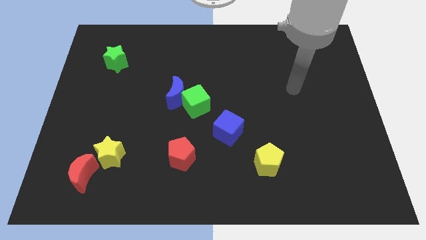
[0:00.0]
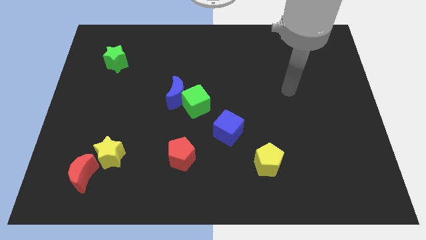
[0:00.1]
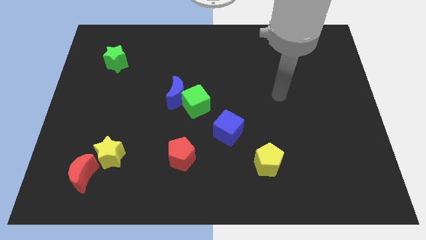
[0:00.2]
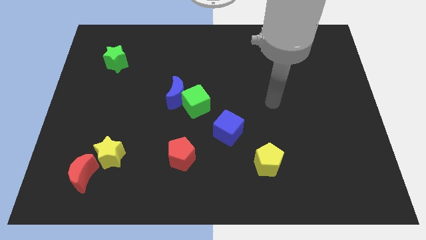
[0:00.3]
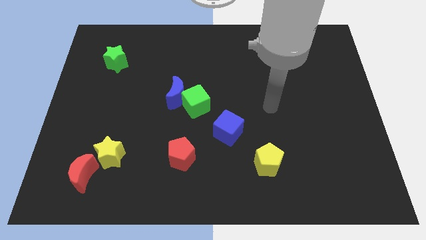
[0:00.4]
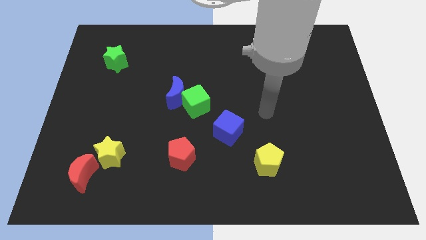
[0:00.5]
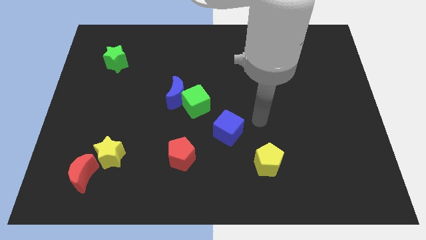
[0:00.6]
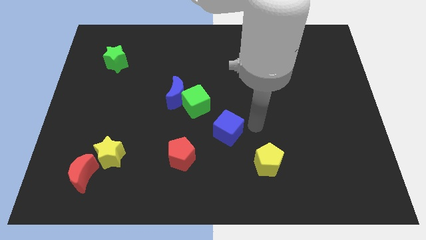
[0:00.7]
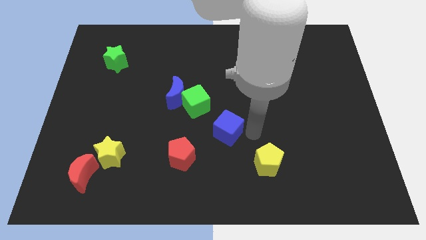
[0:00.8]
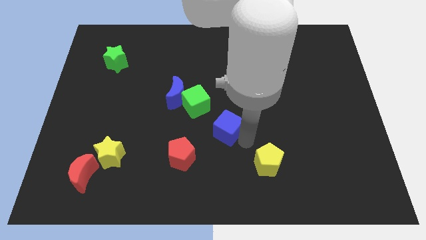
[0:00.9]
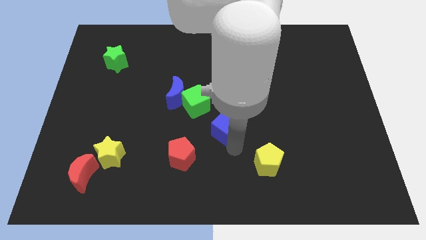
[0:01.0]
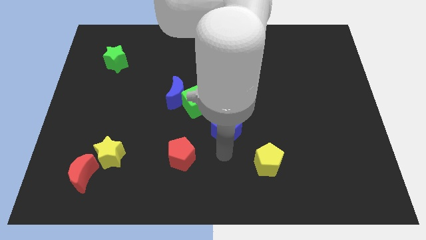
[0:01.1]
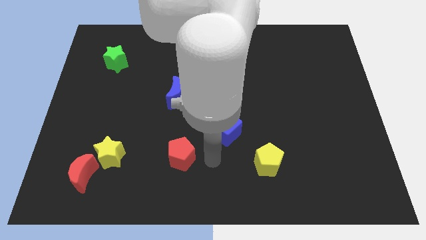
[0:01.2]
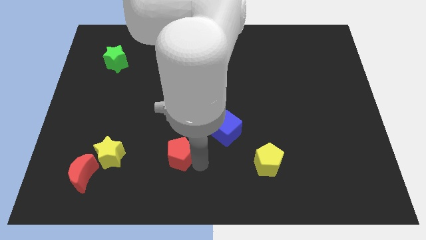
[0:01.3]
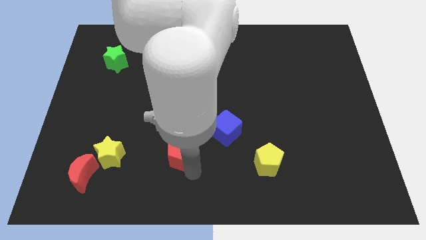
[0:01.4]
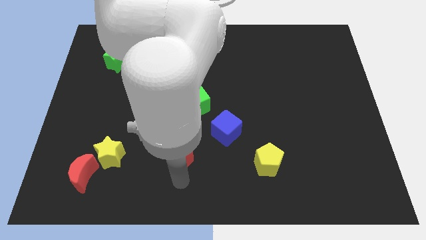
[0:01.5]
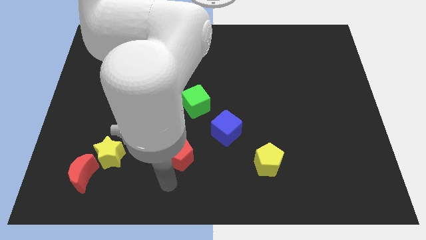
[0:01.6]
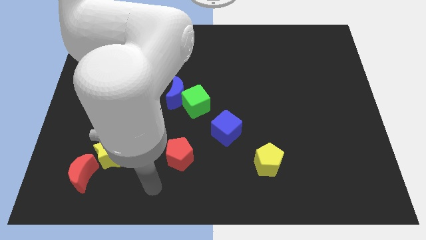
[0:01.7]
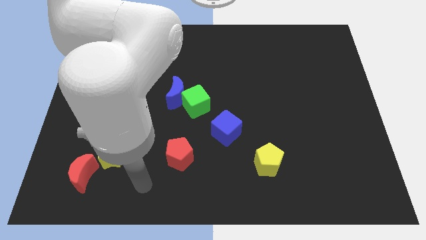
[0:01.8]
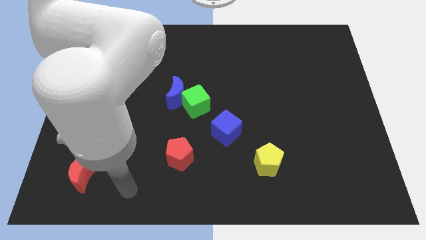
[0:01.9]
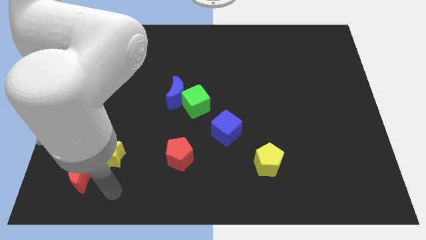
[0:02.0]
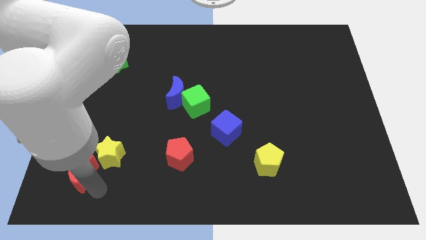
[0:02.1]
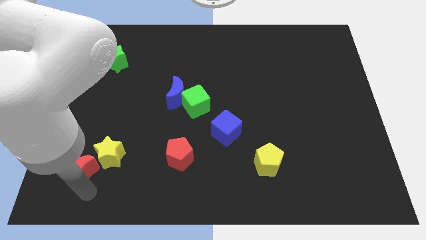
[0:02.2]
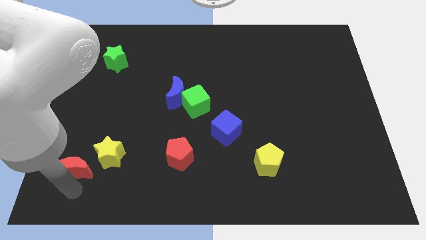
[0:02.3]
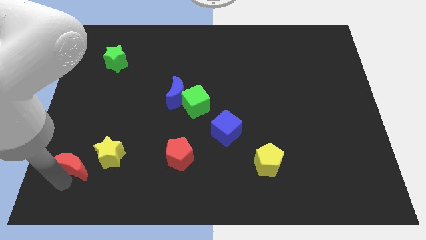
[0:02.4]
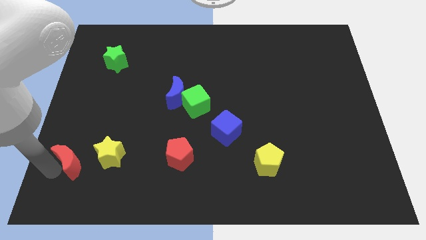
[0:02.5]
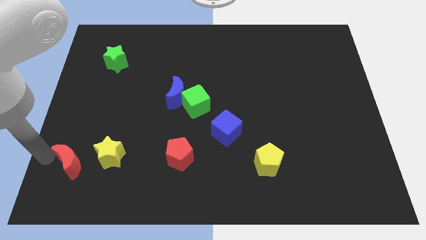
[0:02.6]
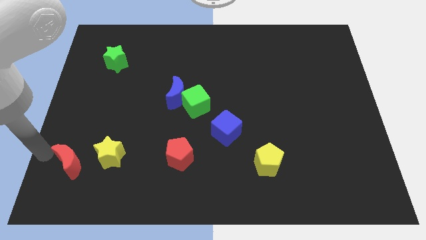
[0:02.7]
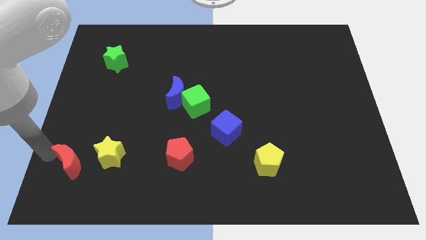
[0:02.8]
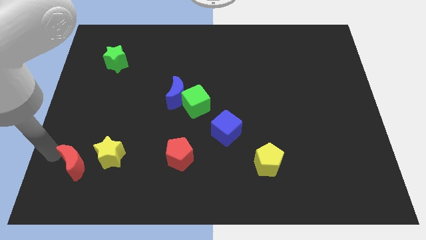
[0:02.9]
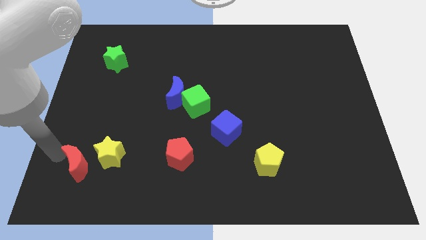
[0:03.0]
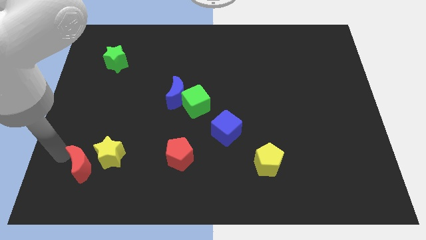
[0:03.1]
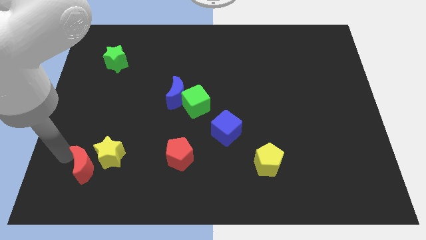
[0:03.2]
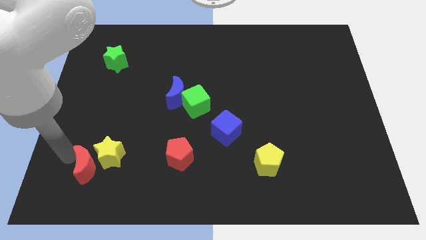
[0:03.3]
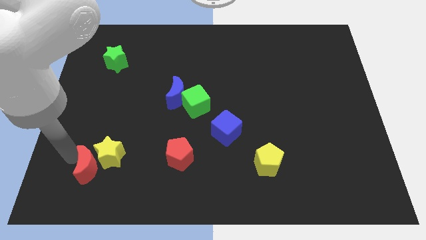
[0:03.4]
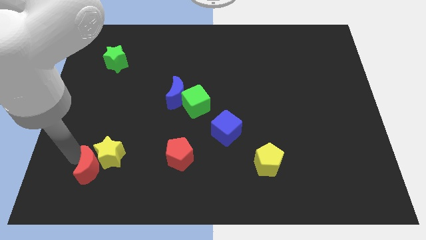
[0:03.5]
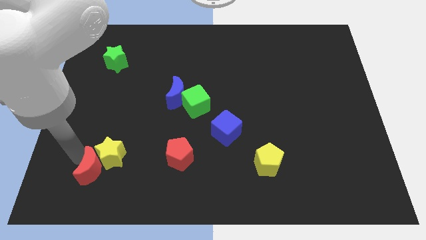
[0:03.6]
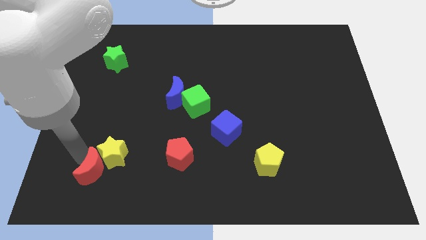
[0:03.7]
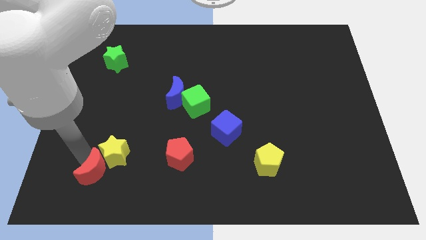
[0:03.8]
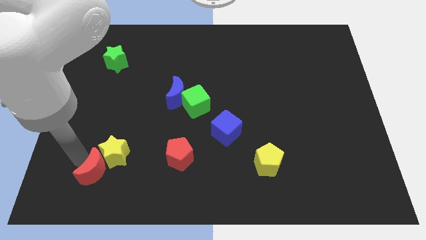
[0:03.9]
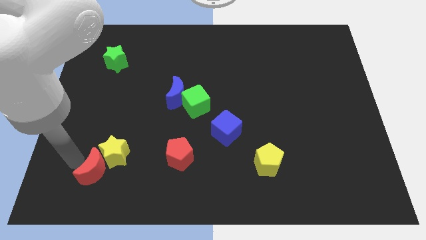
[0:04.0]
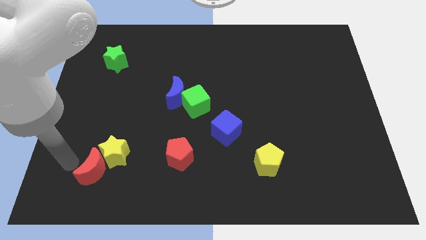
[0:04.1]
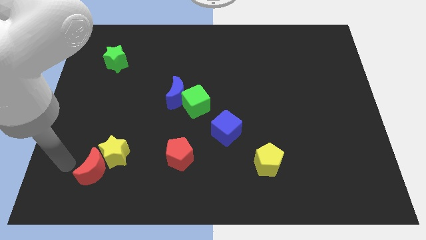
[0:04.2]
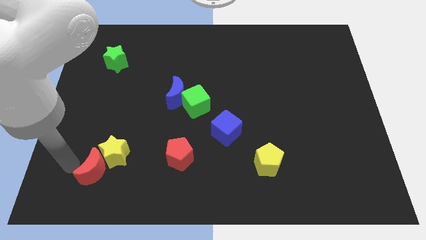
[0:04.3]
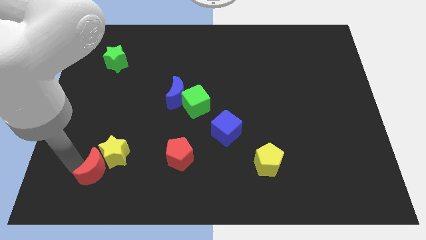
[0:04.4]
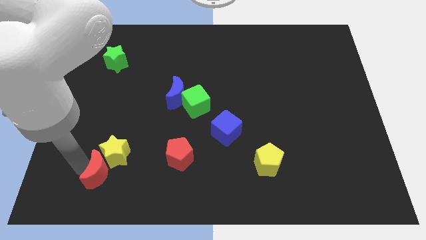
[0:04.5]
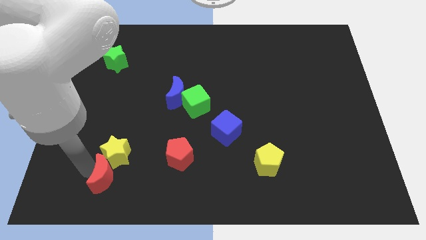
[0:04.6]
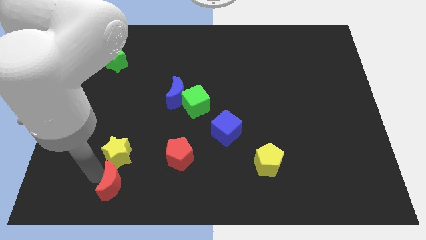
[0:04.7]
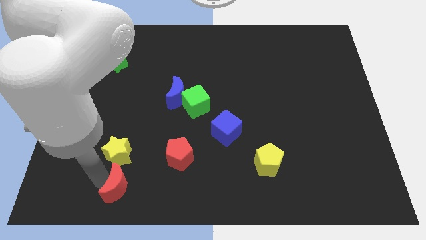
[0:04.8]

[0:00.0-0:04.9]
slide the red moon right a little

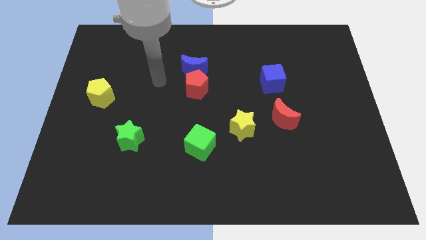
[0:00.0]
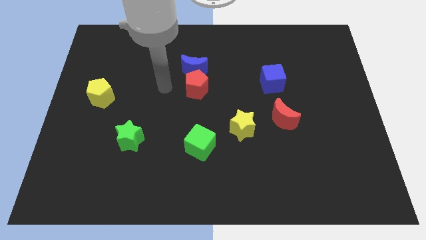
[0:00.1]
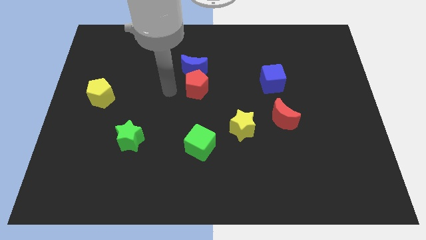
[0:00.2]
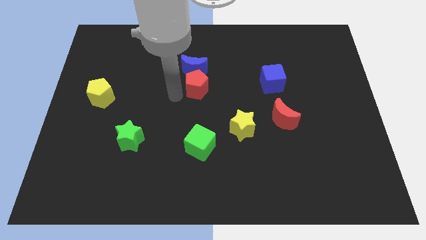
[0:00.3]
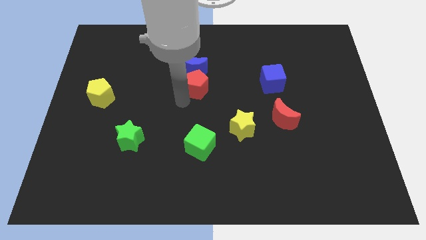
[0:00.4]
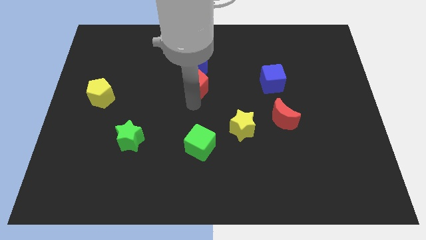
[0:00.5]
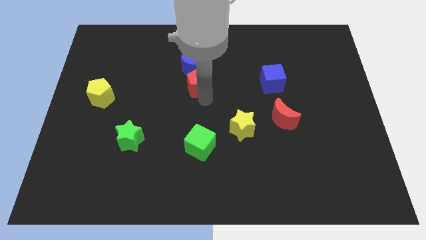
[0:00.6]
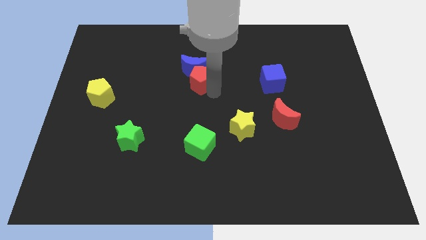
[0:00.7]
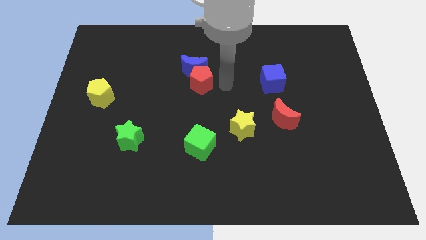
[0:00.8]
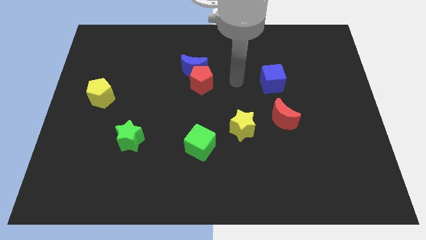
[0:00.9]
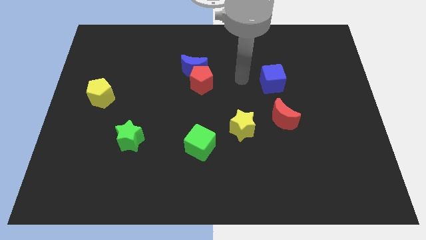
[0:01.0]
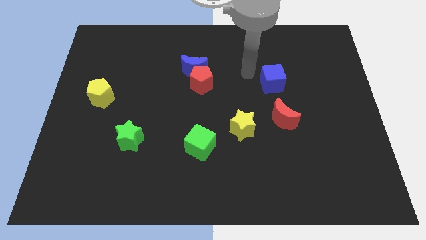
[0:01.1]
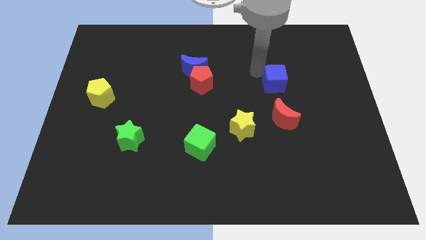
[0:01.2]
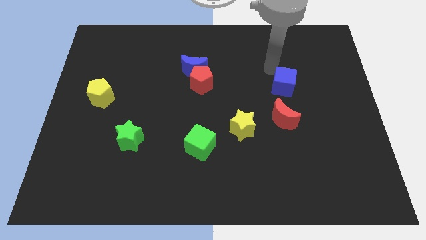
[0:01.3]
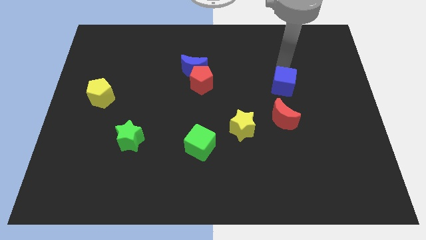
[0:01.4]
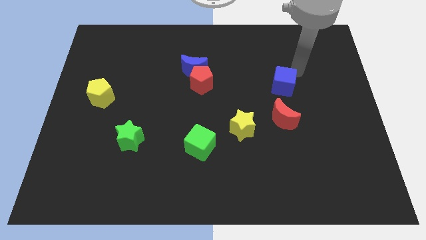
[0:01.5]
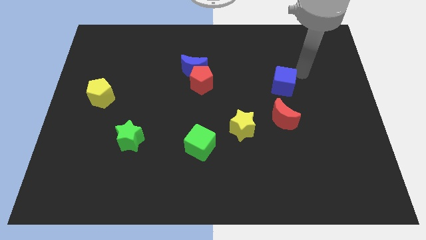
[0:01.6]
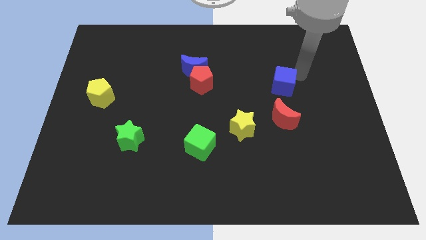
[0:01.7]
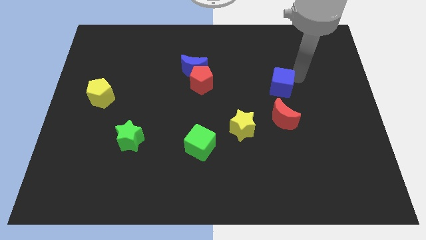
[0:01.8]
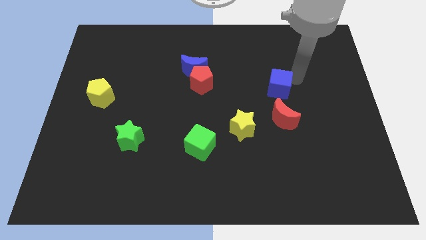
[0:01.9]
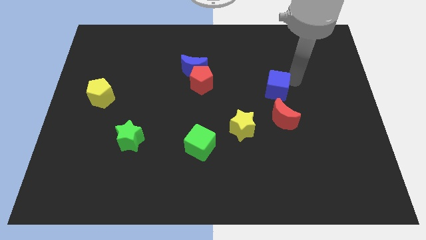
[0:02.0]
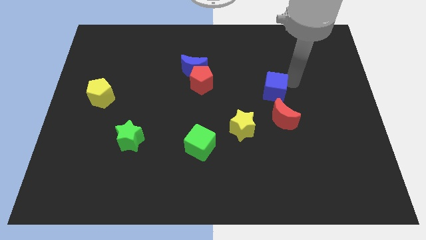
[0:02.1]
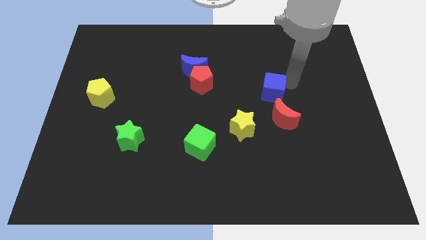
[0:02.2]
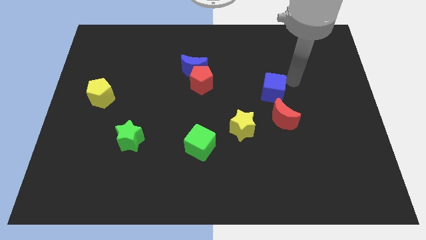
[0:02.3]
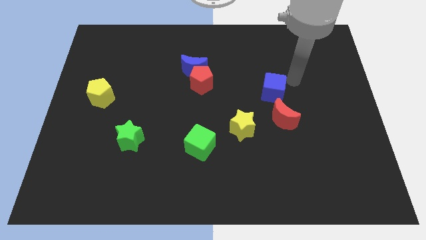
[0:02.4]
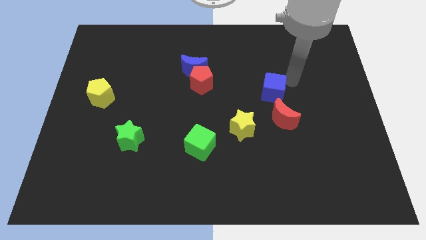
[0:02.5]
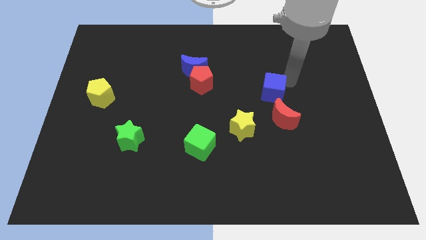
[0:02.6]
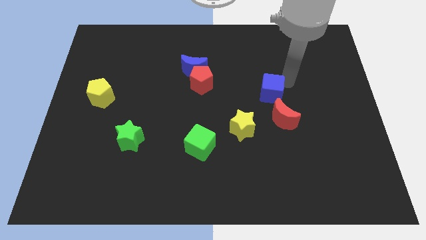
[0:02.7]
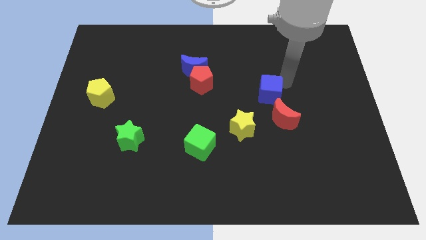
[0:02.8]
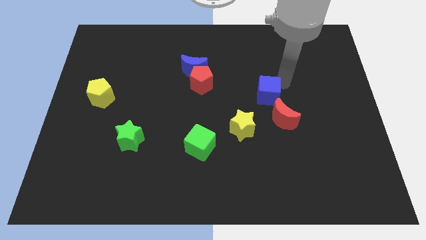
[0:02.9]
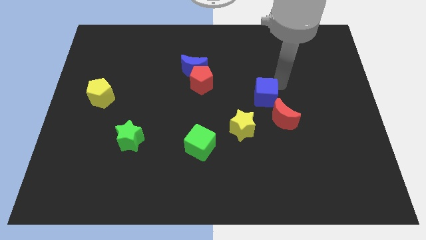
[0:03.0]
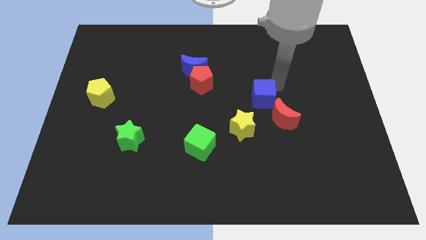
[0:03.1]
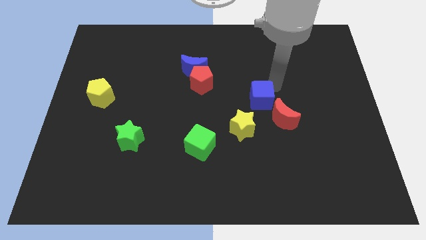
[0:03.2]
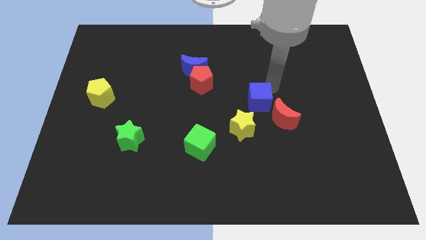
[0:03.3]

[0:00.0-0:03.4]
move the blue cube a little downwards and to the left
